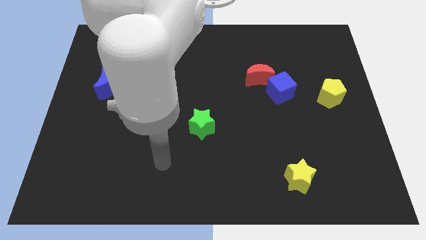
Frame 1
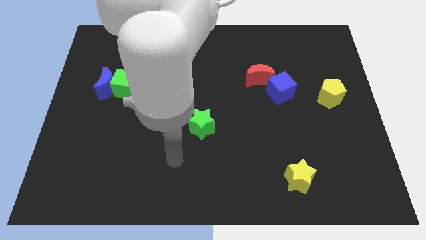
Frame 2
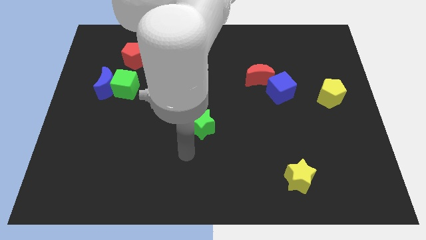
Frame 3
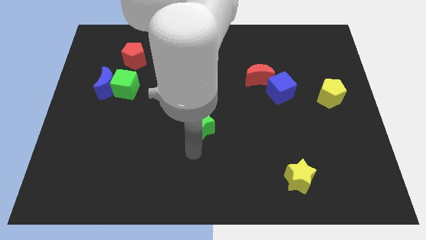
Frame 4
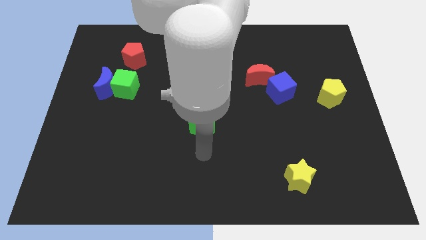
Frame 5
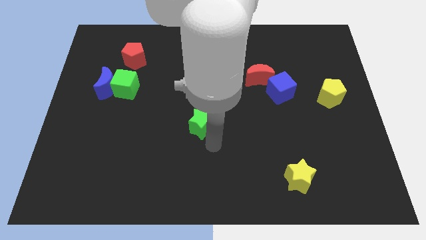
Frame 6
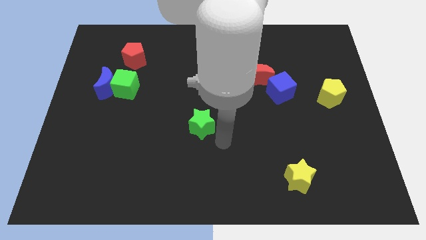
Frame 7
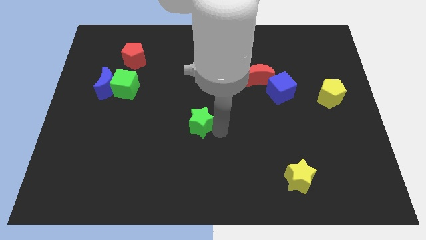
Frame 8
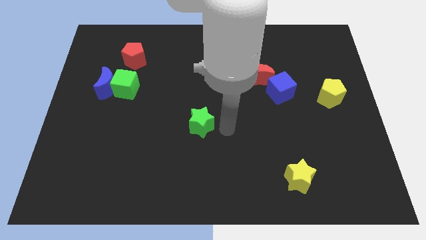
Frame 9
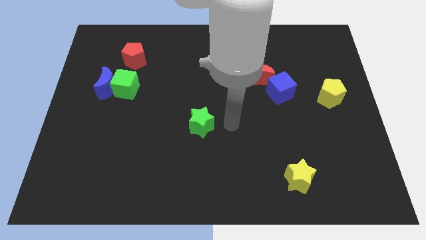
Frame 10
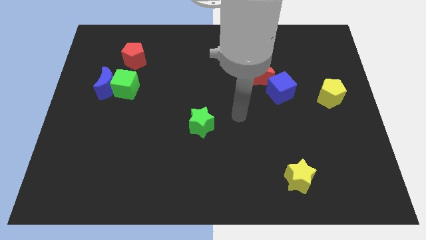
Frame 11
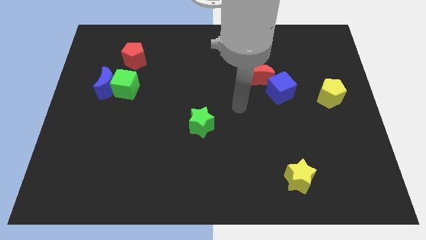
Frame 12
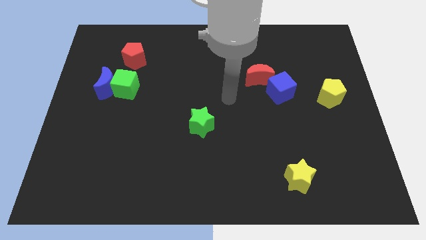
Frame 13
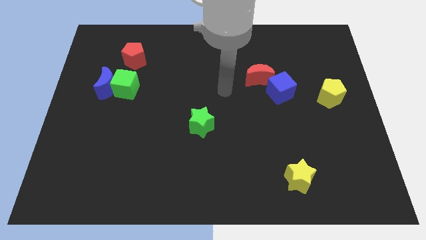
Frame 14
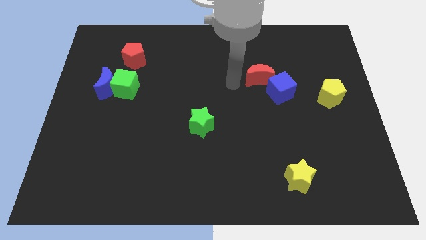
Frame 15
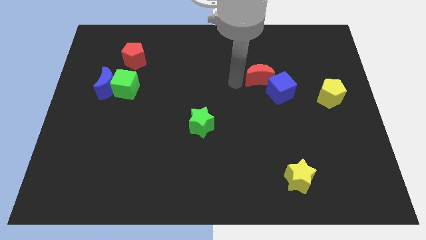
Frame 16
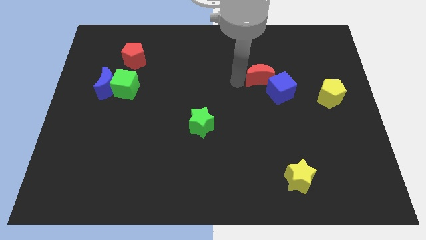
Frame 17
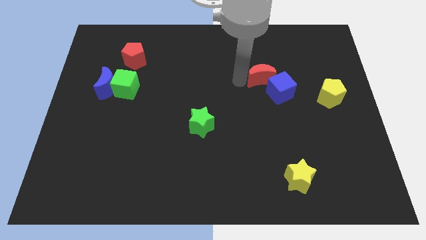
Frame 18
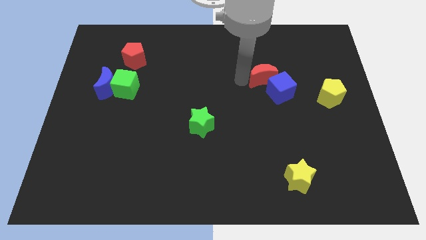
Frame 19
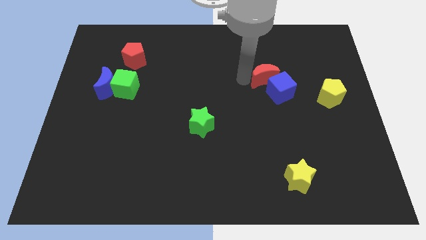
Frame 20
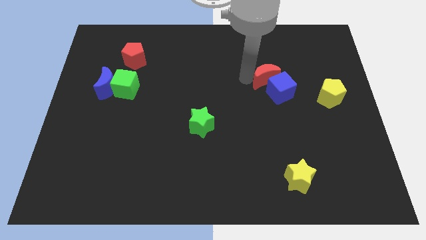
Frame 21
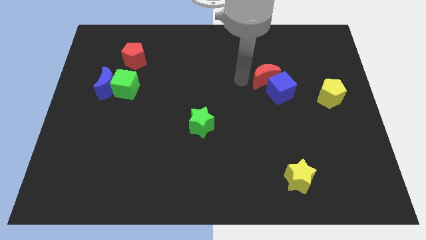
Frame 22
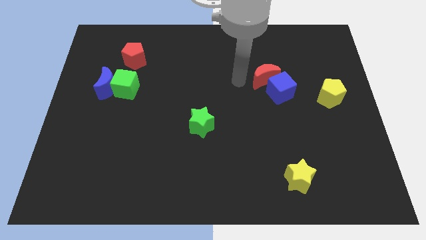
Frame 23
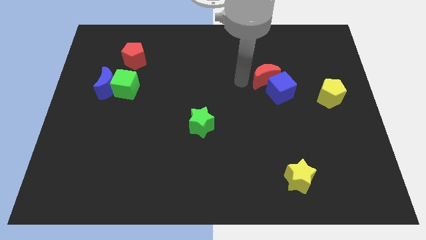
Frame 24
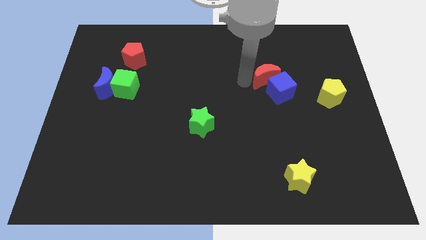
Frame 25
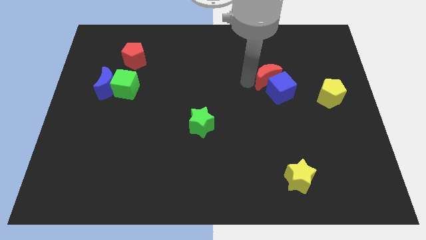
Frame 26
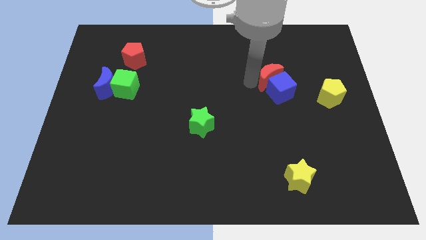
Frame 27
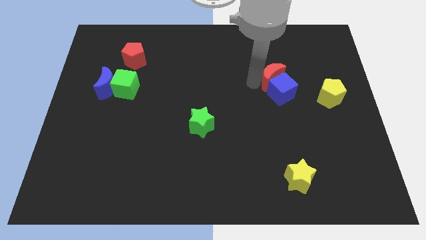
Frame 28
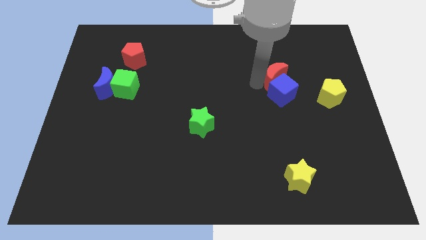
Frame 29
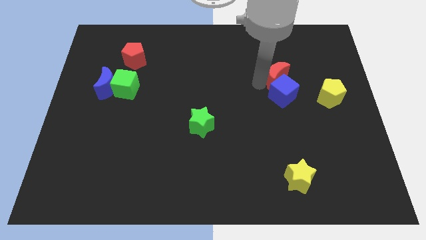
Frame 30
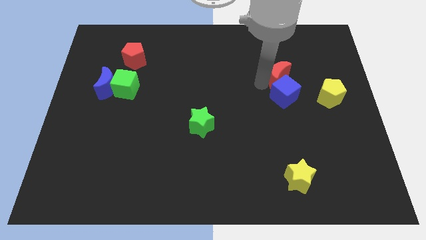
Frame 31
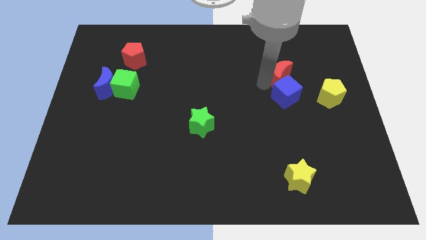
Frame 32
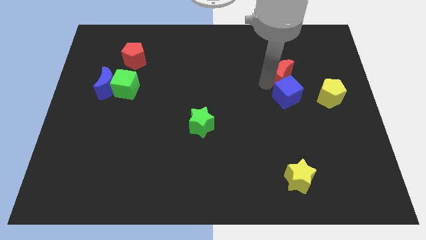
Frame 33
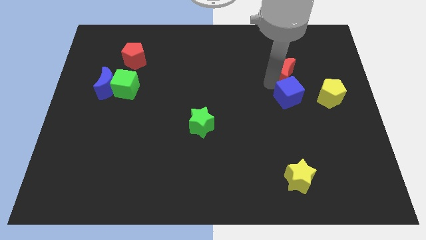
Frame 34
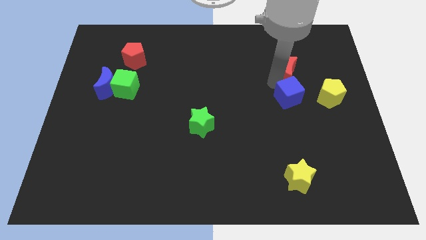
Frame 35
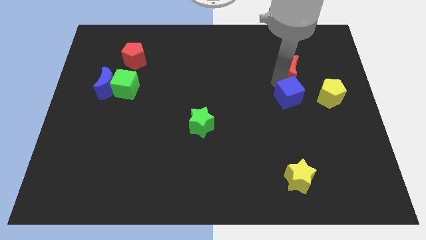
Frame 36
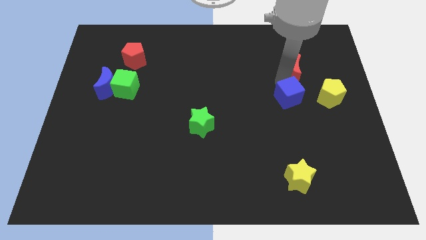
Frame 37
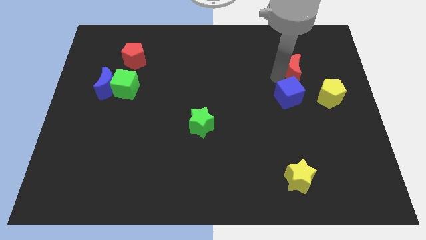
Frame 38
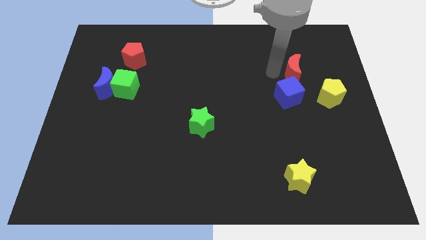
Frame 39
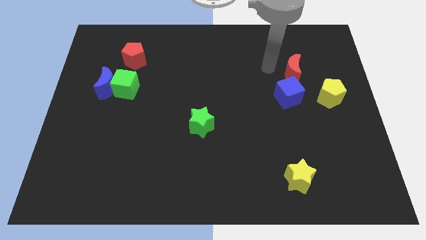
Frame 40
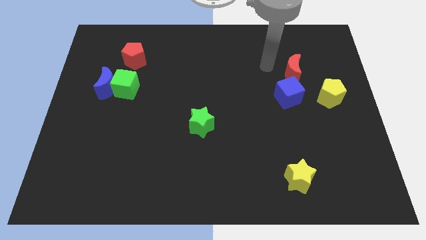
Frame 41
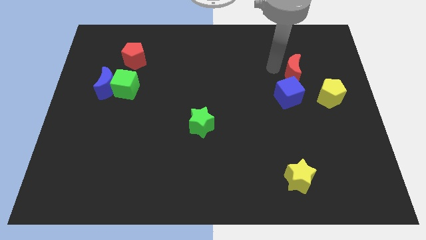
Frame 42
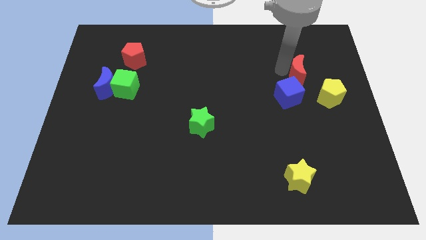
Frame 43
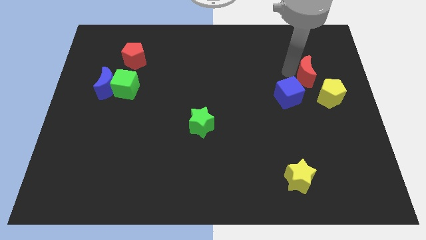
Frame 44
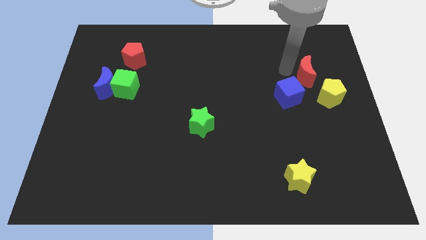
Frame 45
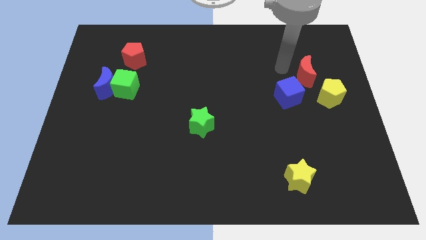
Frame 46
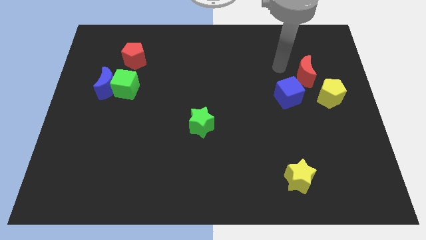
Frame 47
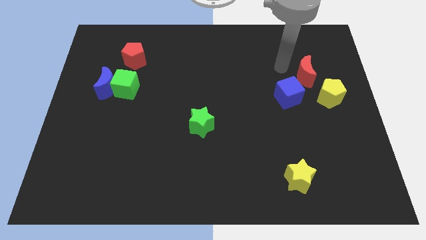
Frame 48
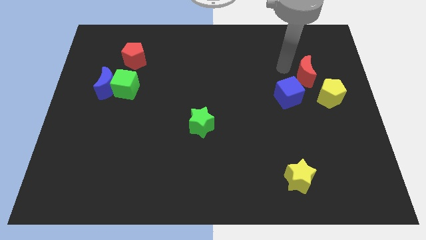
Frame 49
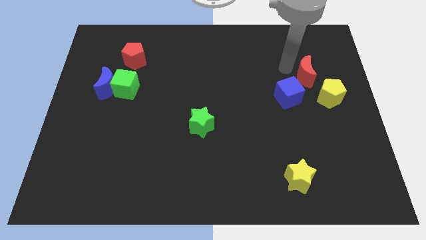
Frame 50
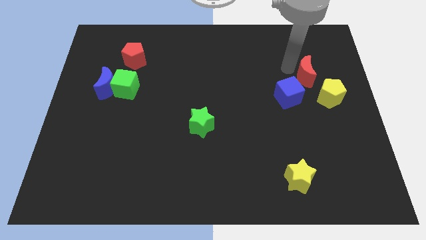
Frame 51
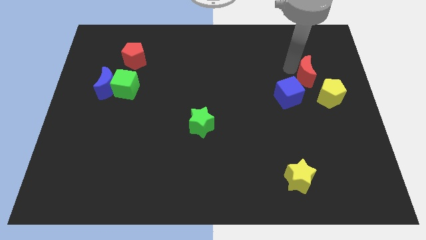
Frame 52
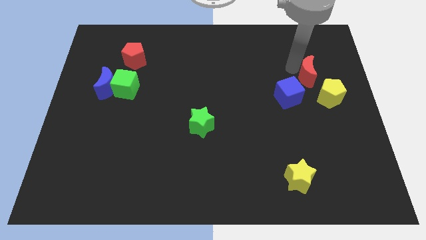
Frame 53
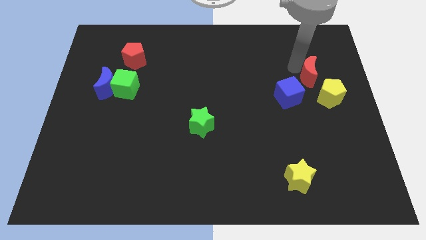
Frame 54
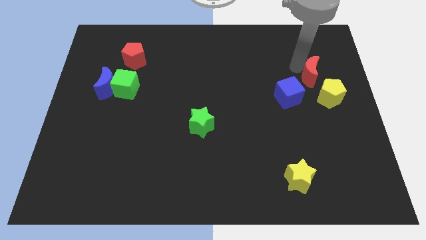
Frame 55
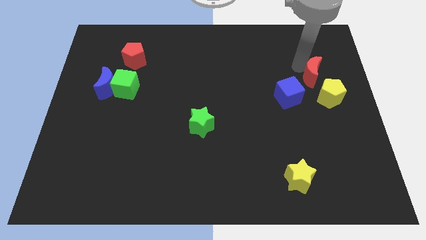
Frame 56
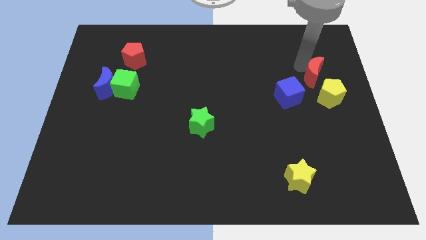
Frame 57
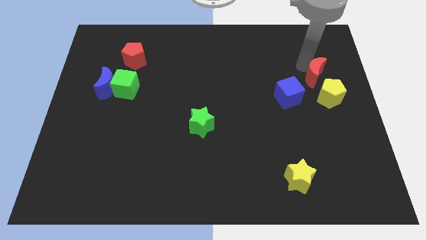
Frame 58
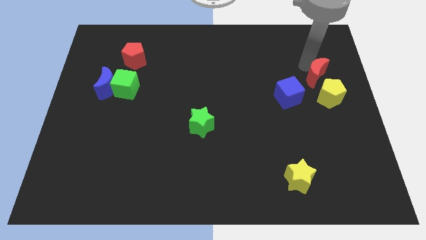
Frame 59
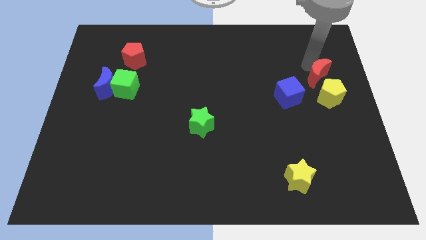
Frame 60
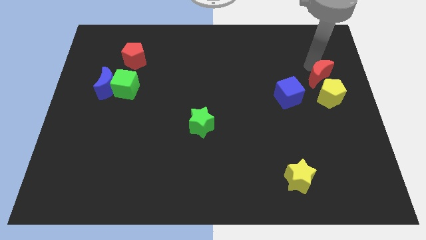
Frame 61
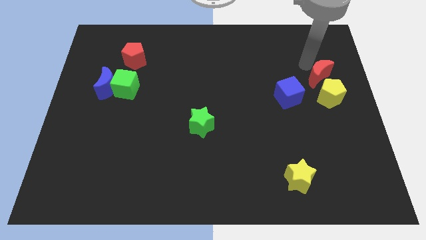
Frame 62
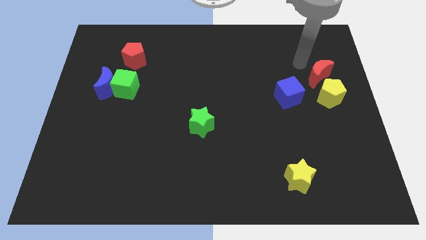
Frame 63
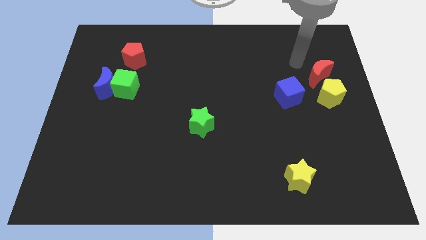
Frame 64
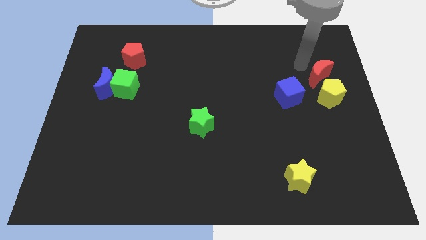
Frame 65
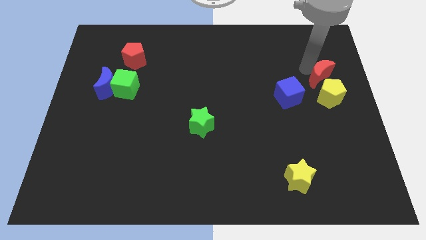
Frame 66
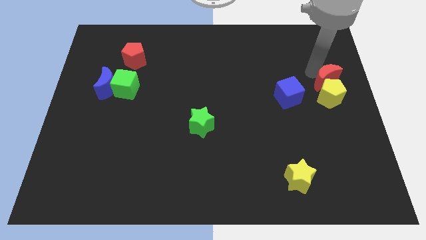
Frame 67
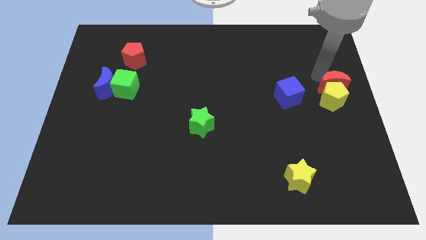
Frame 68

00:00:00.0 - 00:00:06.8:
slide the red moon just right of the blue cube
